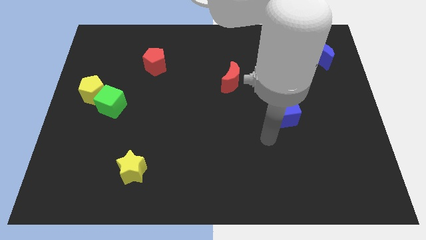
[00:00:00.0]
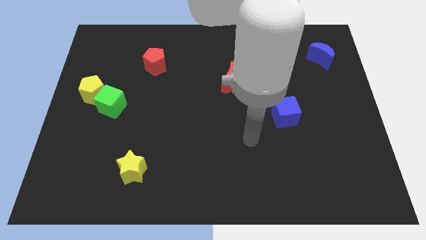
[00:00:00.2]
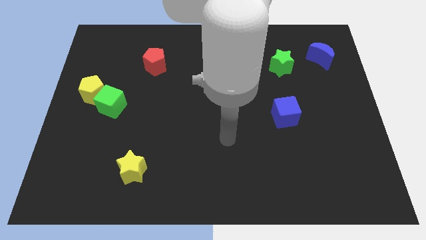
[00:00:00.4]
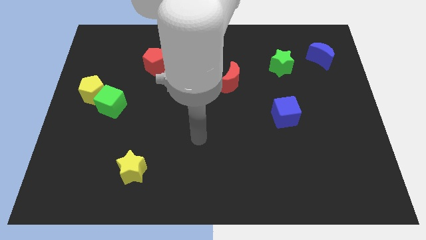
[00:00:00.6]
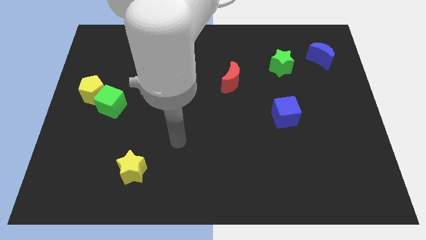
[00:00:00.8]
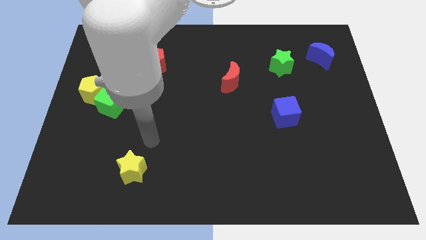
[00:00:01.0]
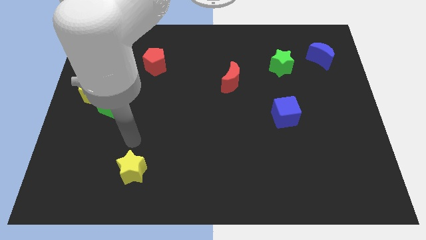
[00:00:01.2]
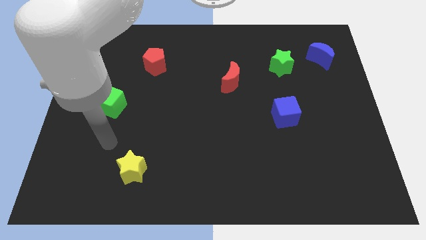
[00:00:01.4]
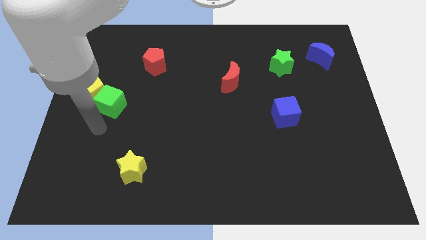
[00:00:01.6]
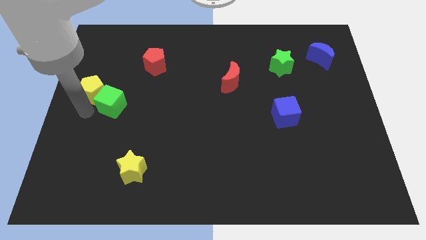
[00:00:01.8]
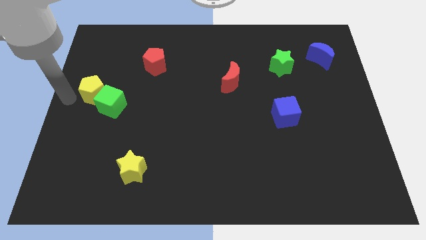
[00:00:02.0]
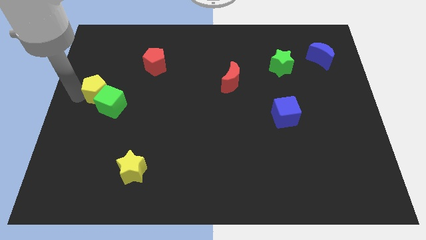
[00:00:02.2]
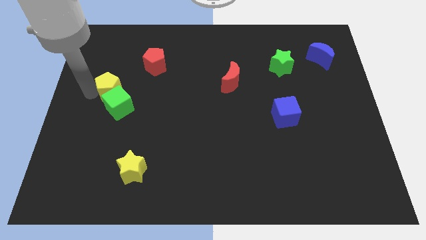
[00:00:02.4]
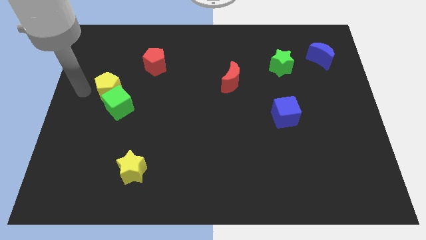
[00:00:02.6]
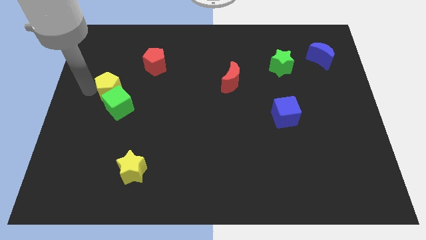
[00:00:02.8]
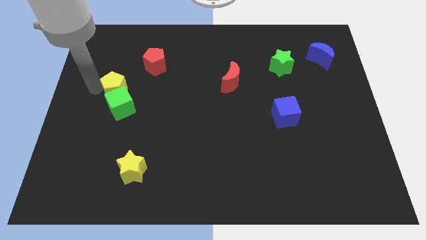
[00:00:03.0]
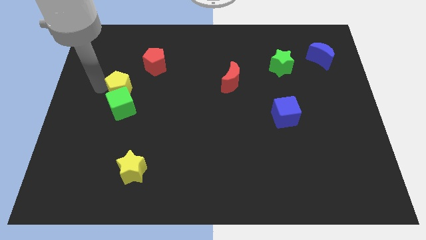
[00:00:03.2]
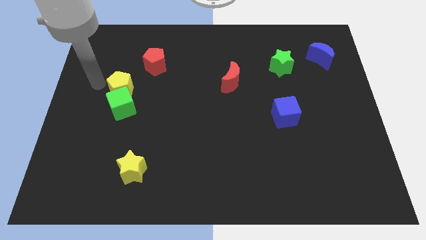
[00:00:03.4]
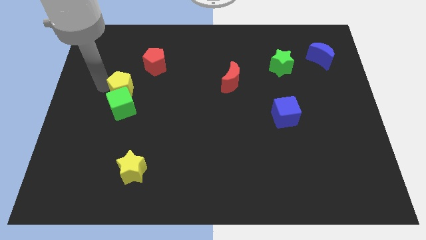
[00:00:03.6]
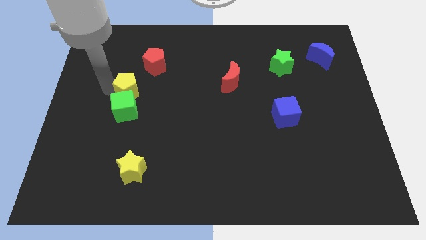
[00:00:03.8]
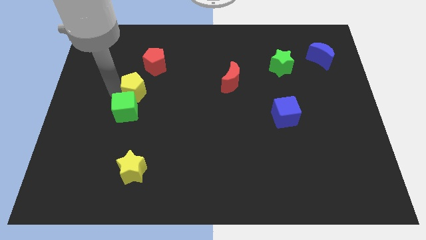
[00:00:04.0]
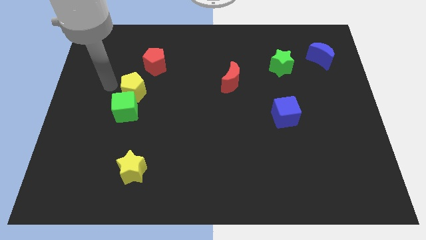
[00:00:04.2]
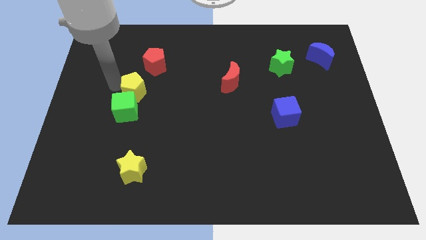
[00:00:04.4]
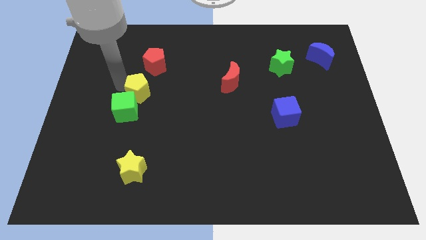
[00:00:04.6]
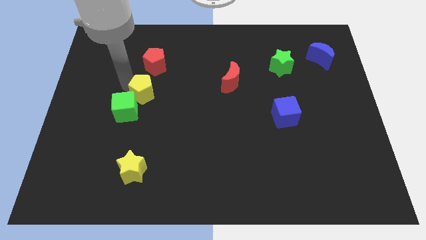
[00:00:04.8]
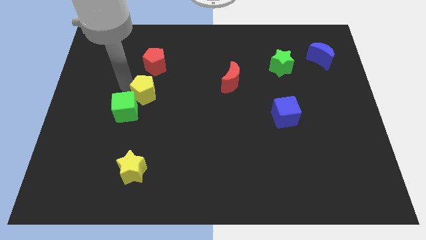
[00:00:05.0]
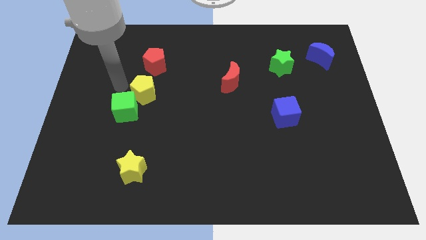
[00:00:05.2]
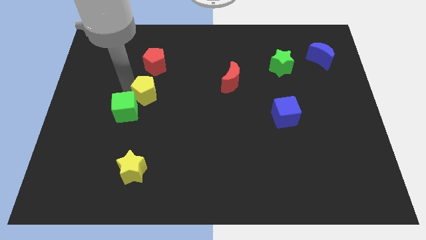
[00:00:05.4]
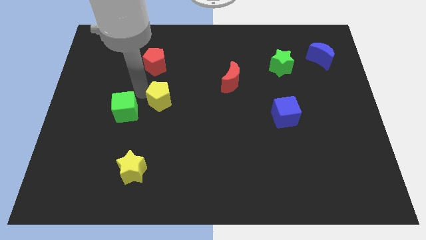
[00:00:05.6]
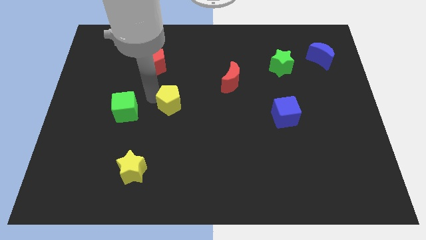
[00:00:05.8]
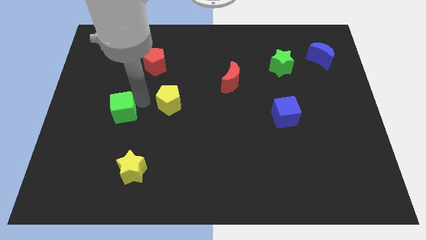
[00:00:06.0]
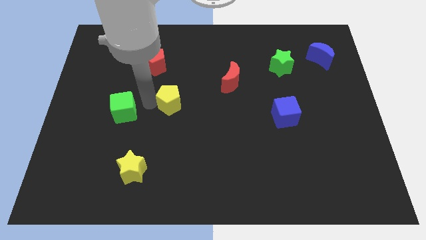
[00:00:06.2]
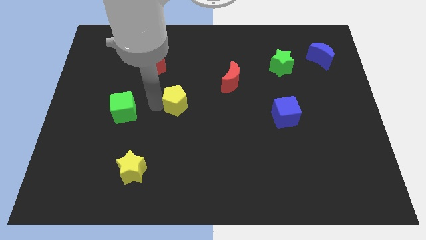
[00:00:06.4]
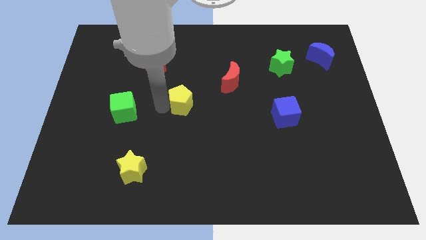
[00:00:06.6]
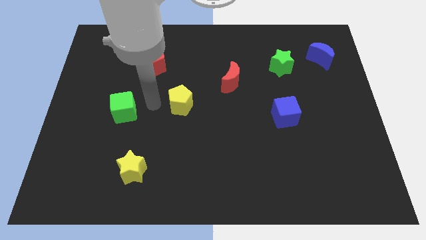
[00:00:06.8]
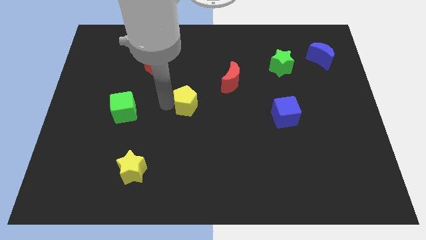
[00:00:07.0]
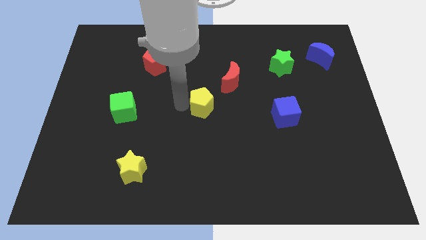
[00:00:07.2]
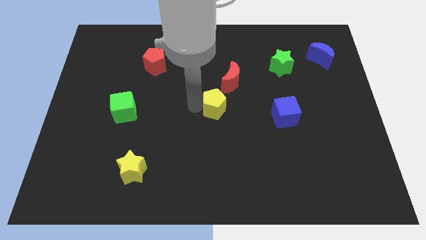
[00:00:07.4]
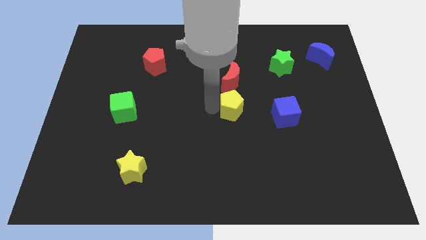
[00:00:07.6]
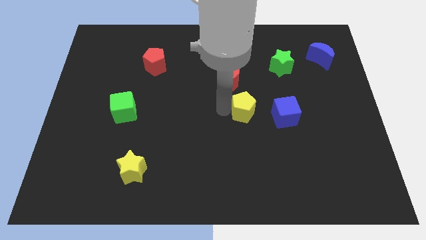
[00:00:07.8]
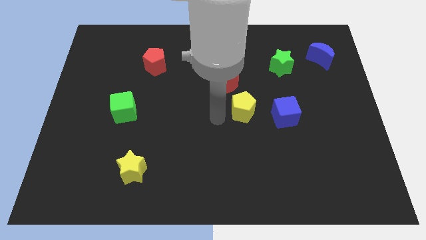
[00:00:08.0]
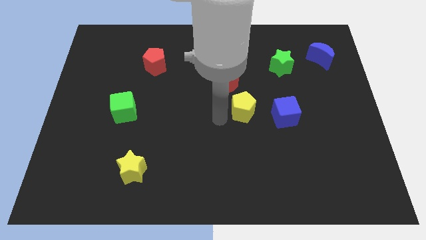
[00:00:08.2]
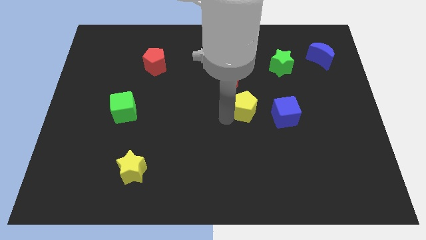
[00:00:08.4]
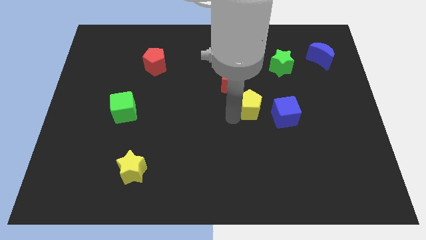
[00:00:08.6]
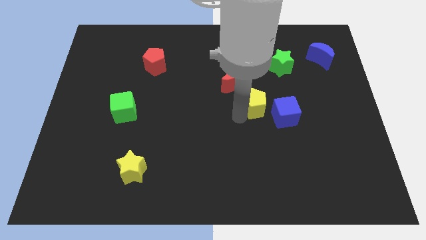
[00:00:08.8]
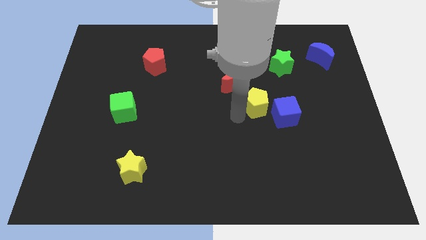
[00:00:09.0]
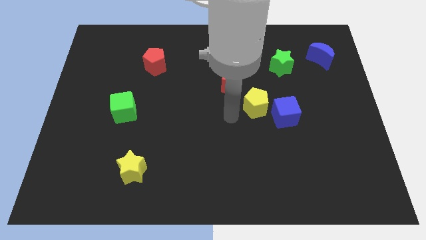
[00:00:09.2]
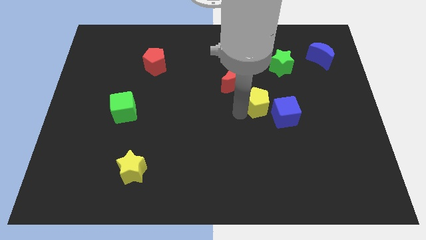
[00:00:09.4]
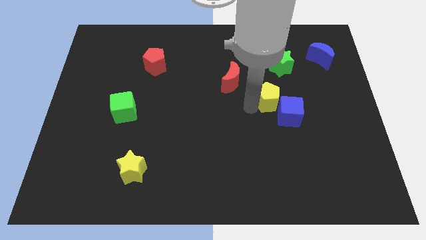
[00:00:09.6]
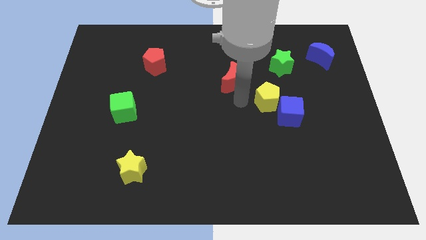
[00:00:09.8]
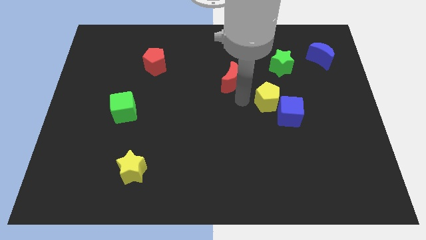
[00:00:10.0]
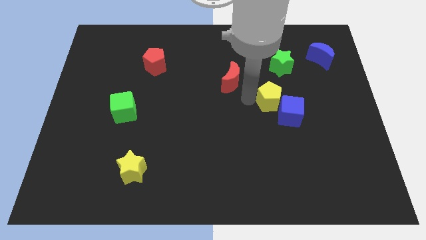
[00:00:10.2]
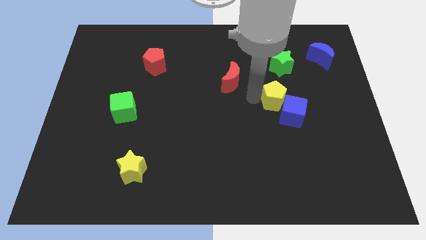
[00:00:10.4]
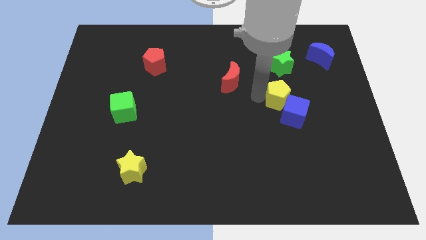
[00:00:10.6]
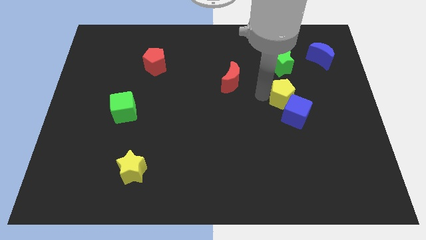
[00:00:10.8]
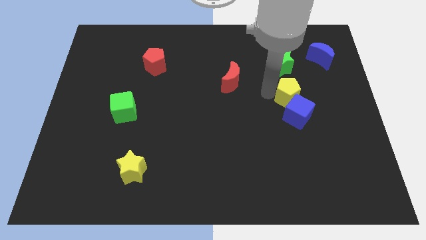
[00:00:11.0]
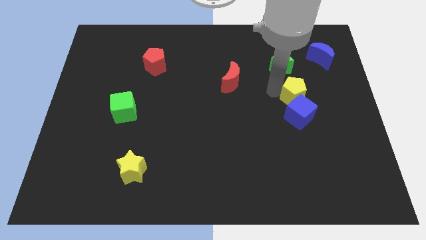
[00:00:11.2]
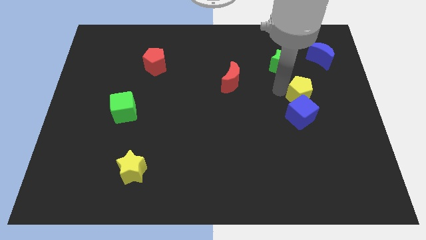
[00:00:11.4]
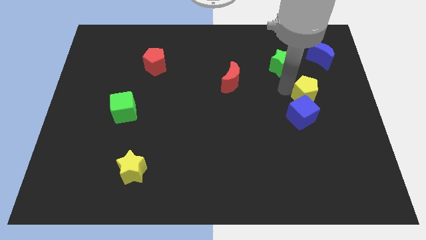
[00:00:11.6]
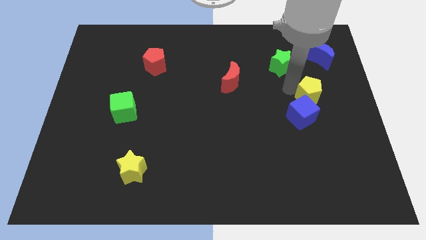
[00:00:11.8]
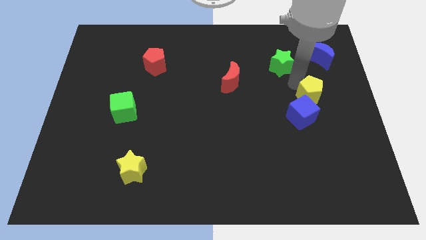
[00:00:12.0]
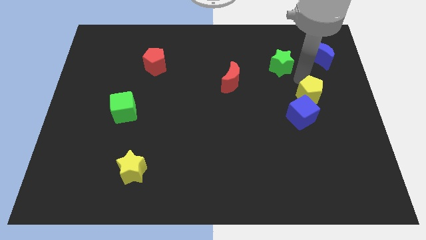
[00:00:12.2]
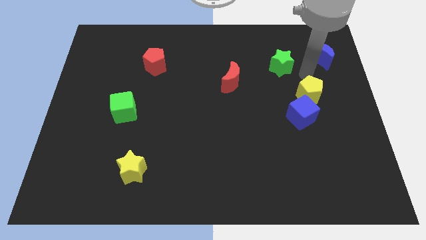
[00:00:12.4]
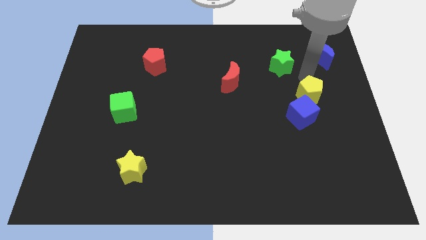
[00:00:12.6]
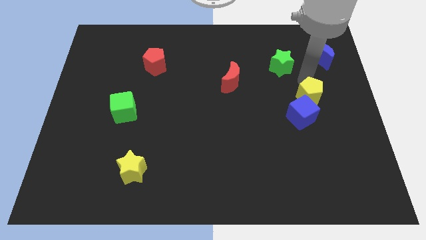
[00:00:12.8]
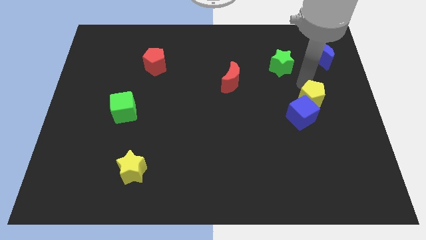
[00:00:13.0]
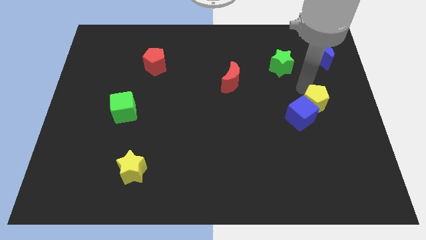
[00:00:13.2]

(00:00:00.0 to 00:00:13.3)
move the yellow pentagon to the right side of the blue cube
